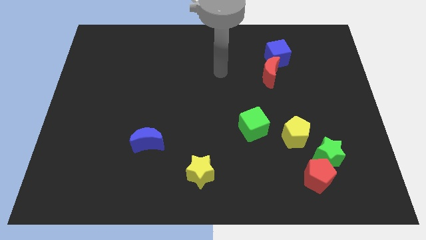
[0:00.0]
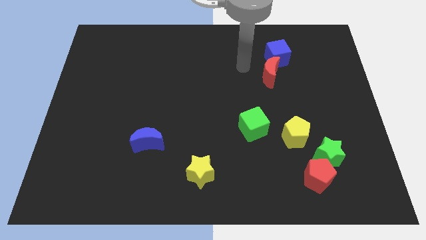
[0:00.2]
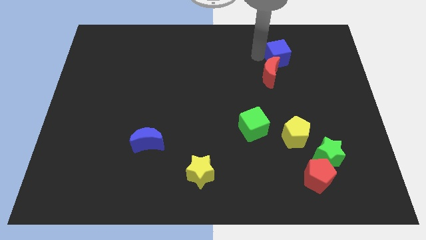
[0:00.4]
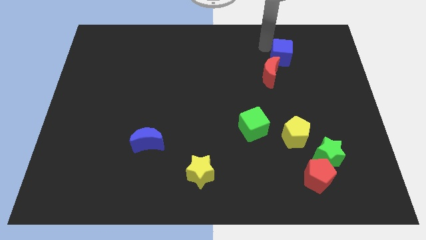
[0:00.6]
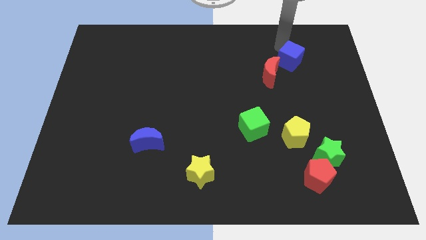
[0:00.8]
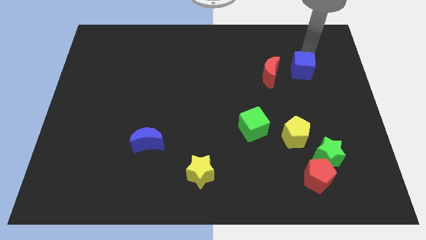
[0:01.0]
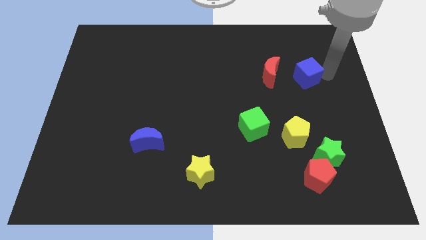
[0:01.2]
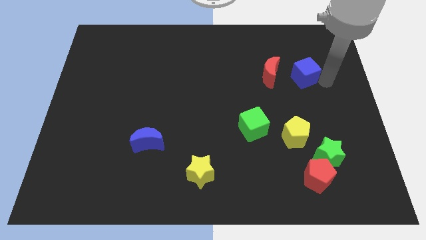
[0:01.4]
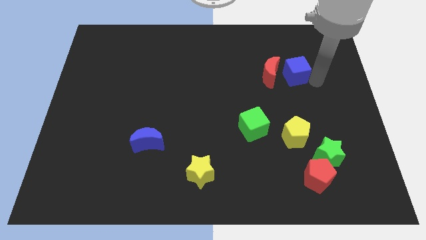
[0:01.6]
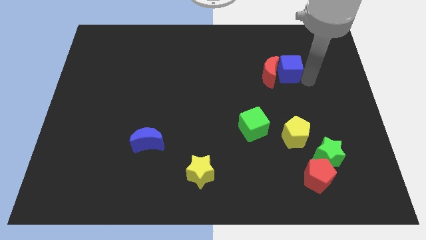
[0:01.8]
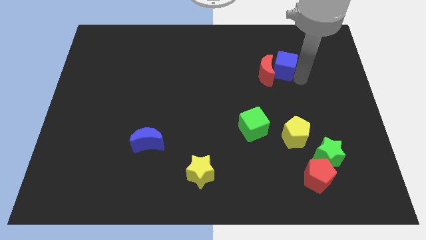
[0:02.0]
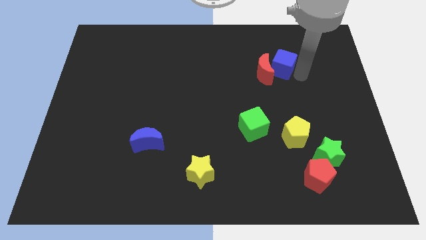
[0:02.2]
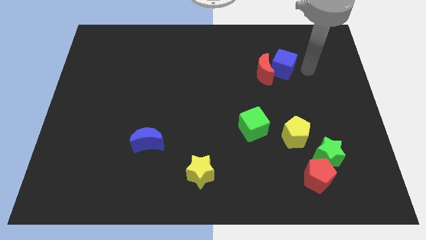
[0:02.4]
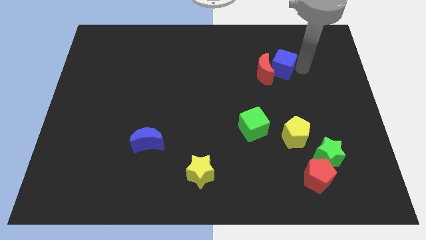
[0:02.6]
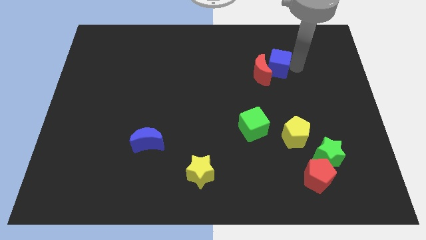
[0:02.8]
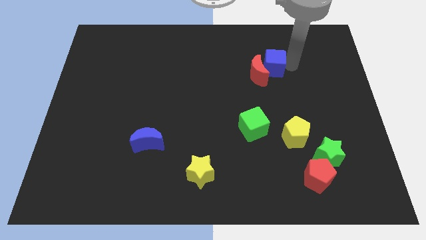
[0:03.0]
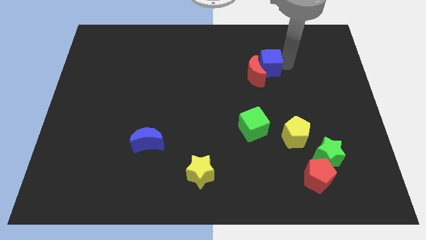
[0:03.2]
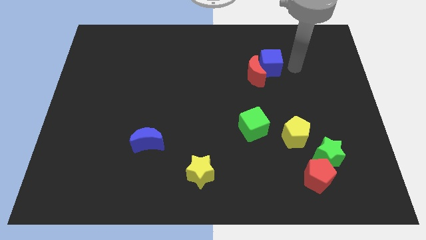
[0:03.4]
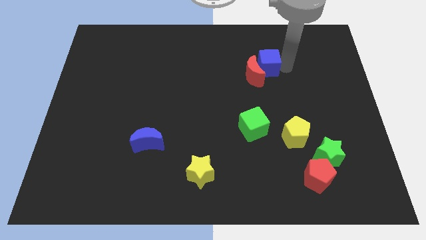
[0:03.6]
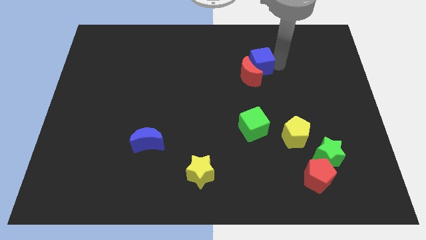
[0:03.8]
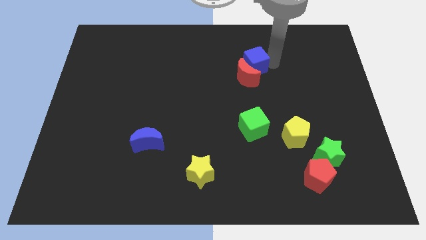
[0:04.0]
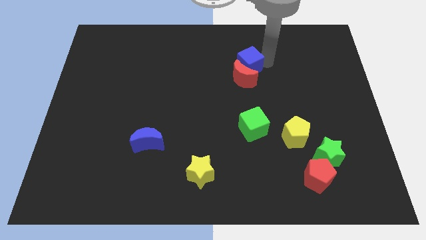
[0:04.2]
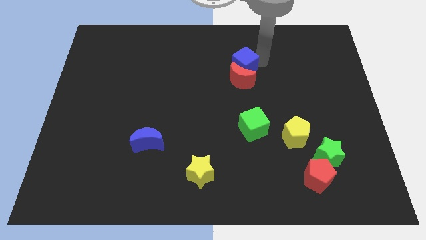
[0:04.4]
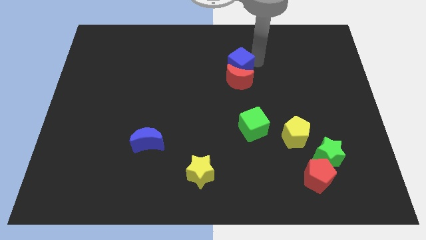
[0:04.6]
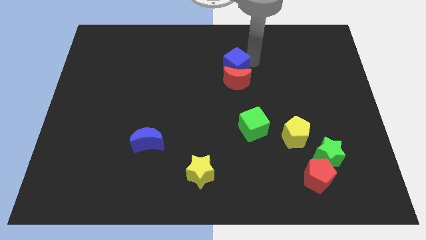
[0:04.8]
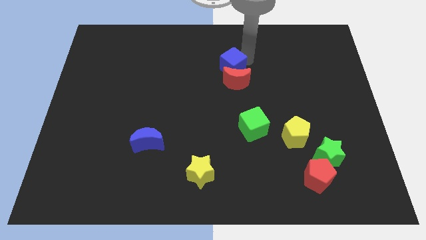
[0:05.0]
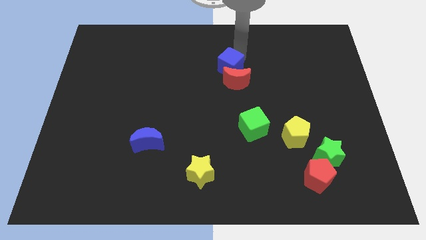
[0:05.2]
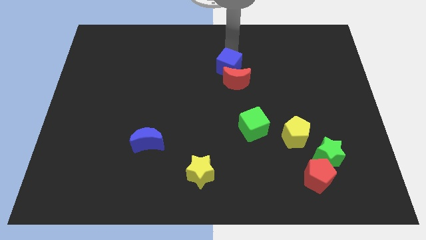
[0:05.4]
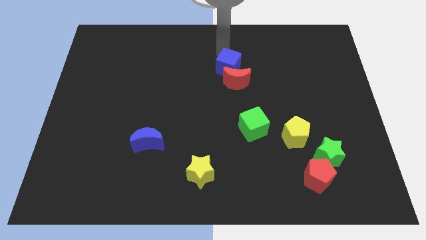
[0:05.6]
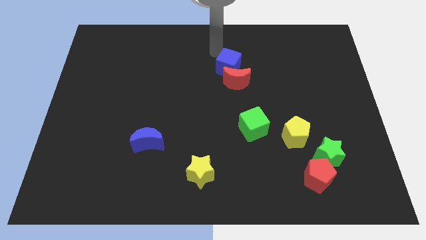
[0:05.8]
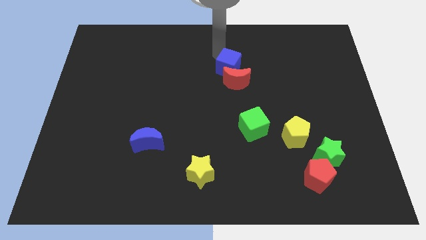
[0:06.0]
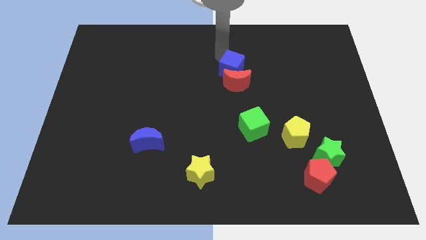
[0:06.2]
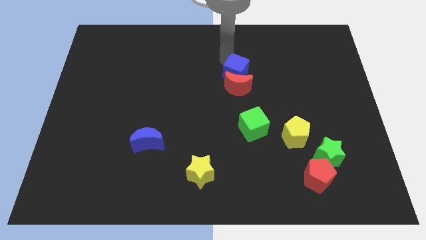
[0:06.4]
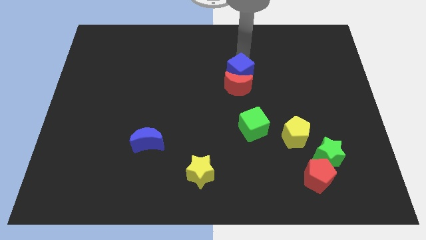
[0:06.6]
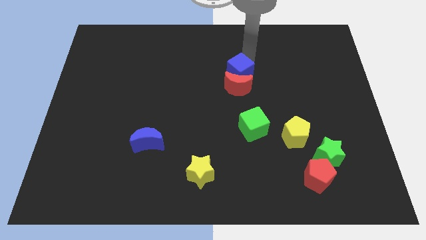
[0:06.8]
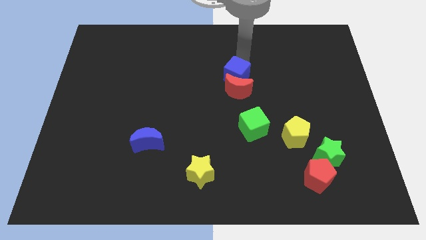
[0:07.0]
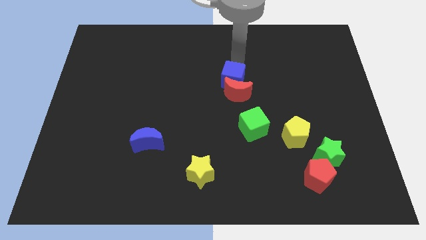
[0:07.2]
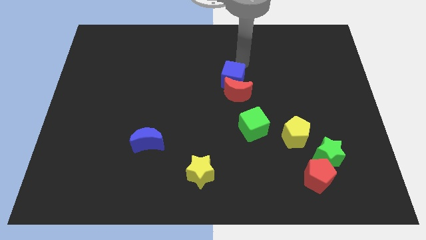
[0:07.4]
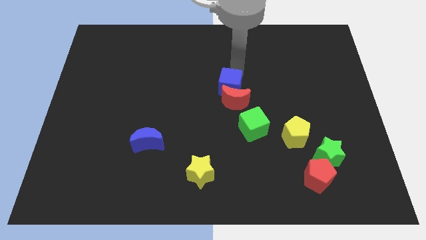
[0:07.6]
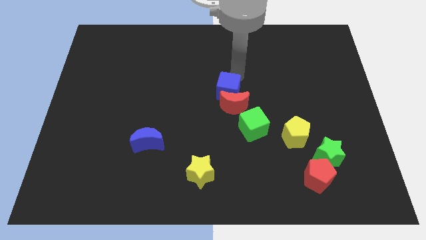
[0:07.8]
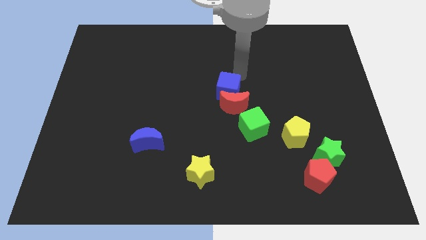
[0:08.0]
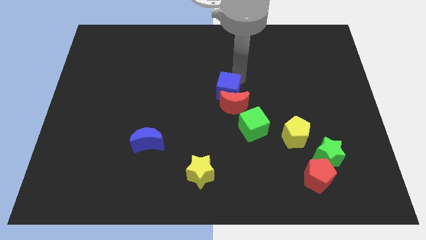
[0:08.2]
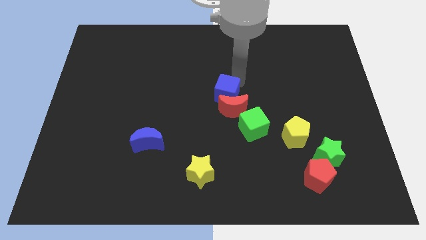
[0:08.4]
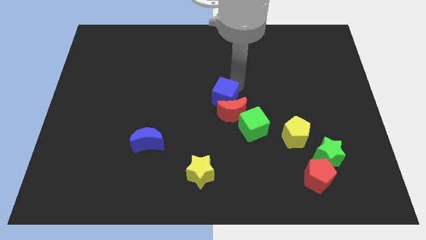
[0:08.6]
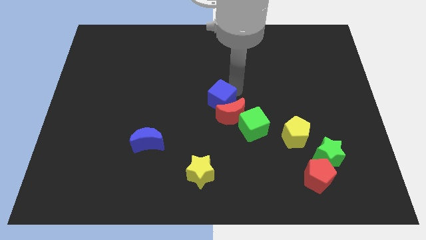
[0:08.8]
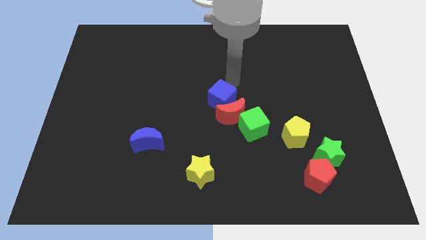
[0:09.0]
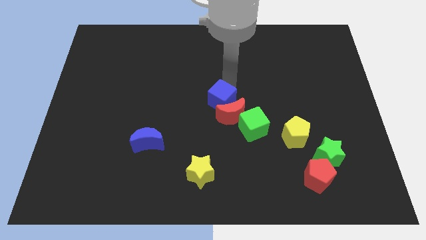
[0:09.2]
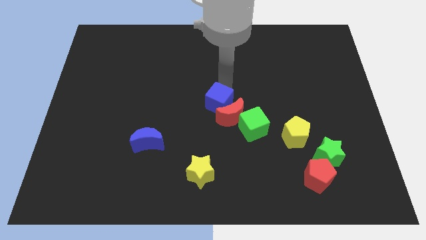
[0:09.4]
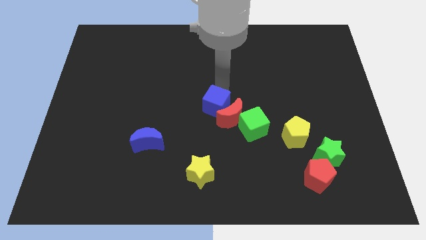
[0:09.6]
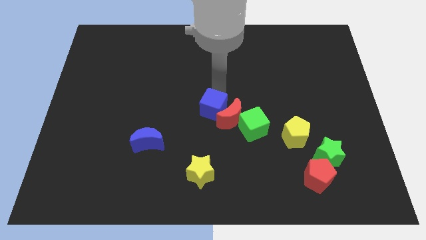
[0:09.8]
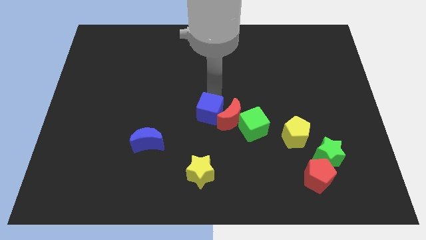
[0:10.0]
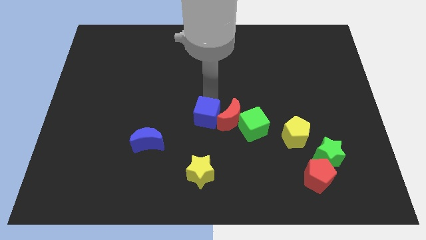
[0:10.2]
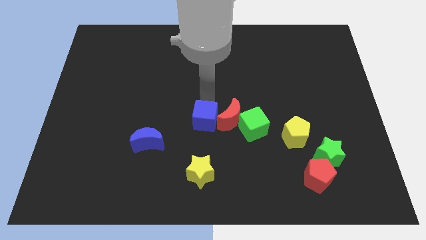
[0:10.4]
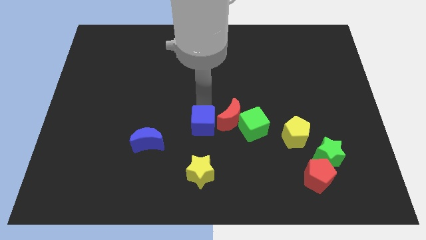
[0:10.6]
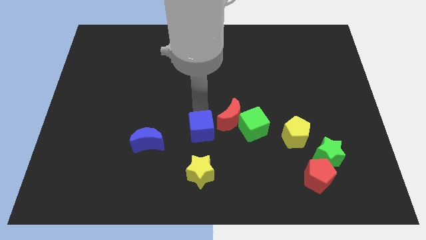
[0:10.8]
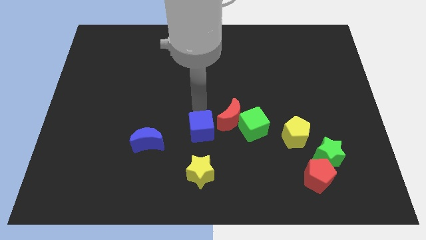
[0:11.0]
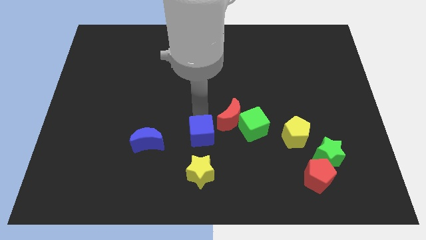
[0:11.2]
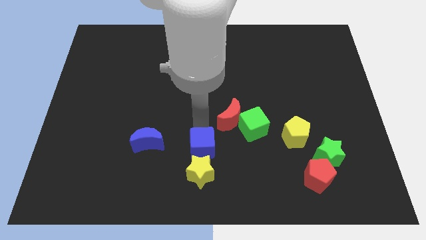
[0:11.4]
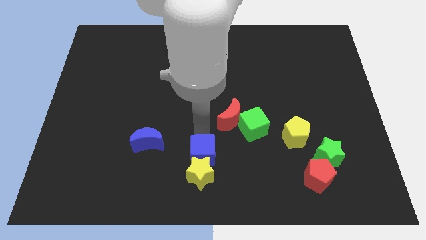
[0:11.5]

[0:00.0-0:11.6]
move the blue cube next to the yellow star

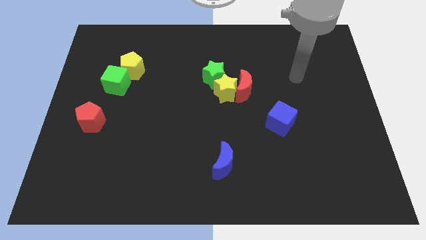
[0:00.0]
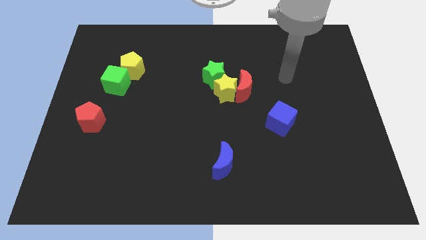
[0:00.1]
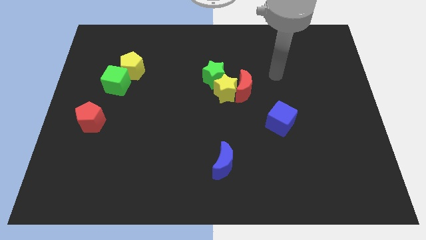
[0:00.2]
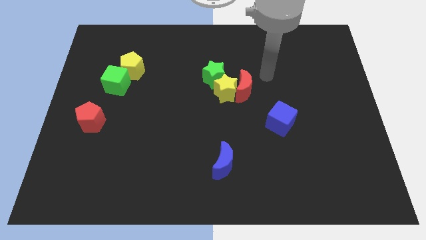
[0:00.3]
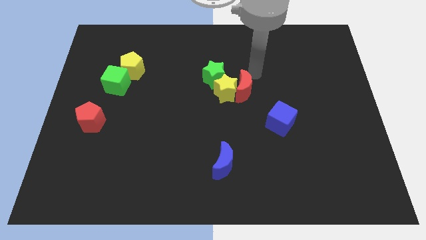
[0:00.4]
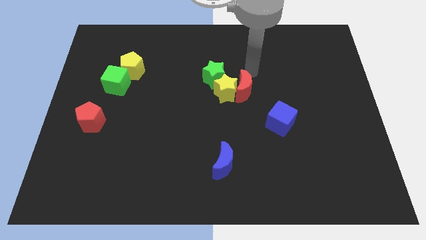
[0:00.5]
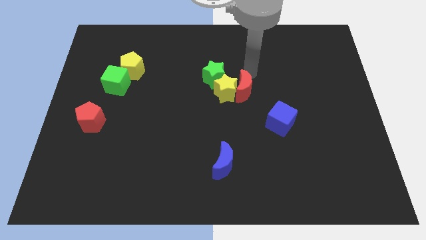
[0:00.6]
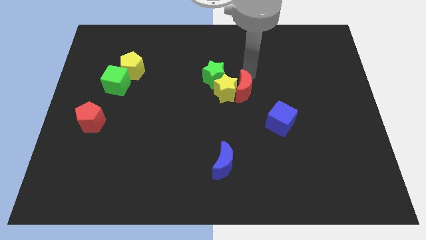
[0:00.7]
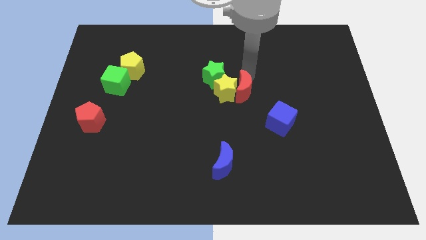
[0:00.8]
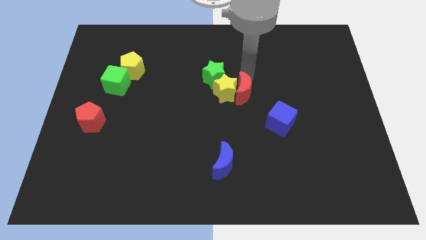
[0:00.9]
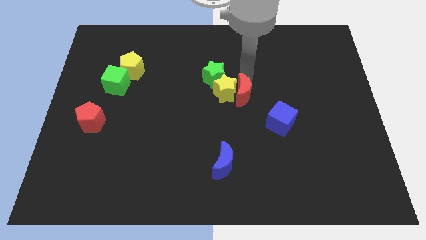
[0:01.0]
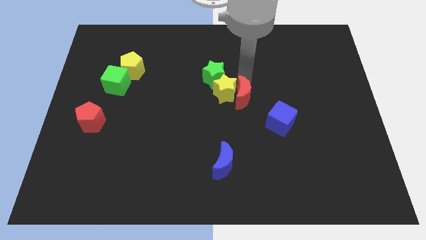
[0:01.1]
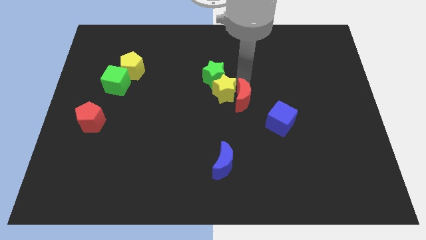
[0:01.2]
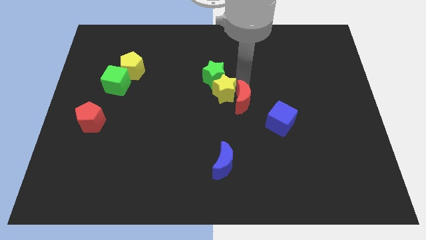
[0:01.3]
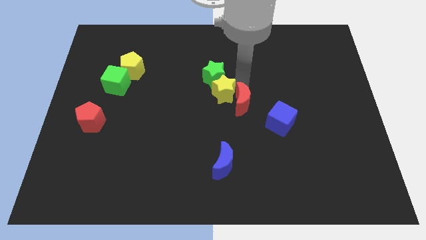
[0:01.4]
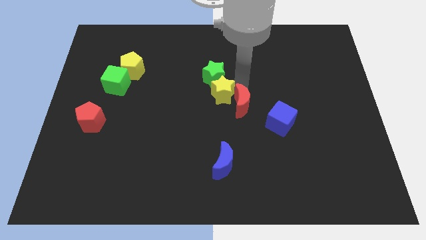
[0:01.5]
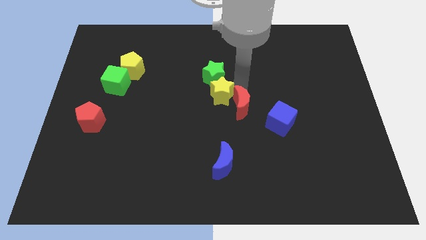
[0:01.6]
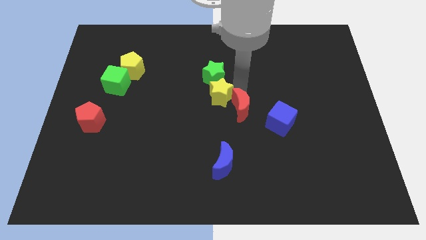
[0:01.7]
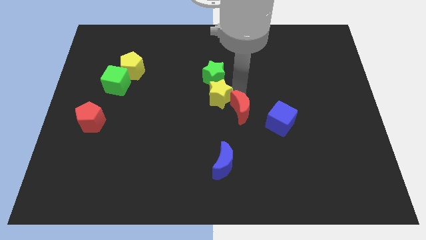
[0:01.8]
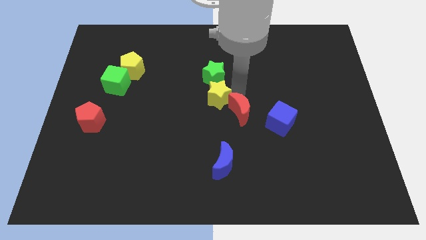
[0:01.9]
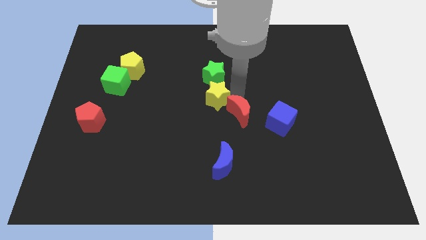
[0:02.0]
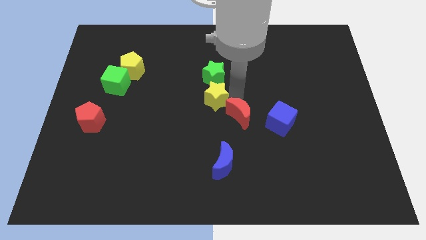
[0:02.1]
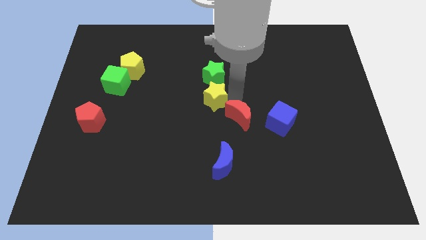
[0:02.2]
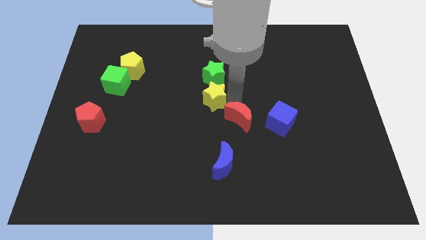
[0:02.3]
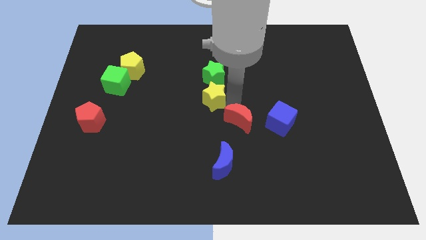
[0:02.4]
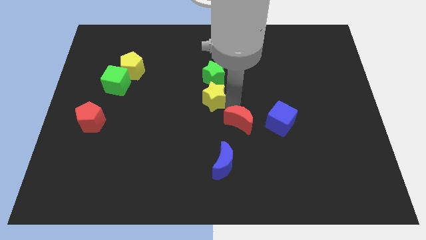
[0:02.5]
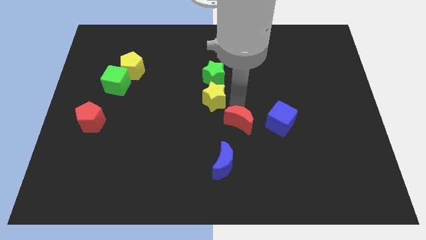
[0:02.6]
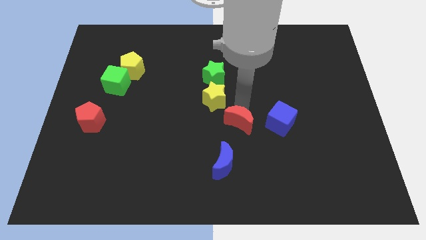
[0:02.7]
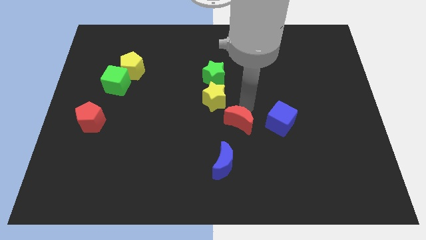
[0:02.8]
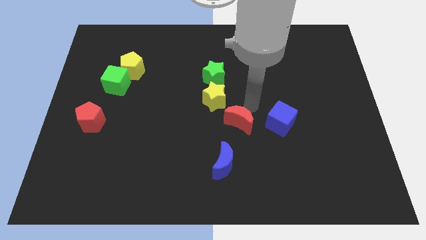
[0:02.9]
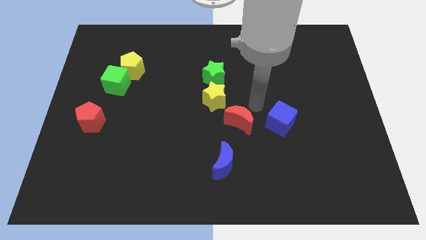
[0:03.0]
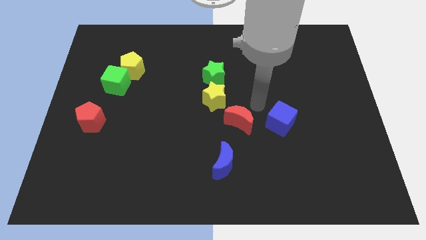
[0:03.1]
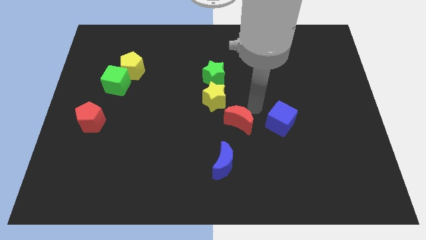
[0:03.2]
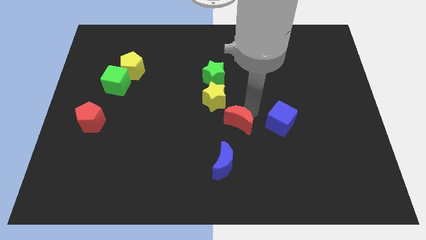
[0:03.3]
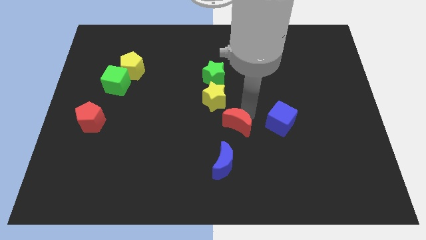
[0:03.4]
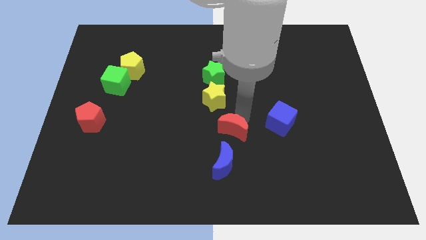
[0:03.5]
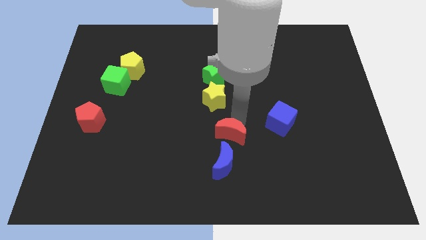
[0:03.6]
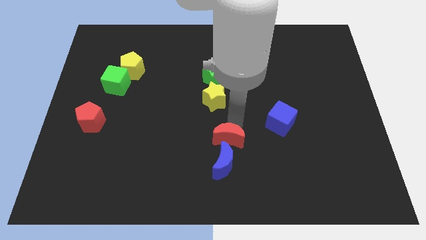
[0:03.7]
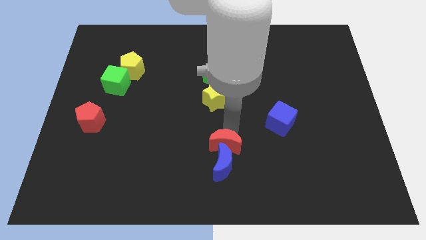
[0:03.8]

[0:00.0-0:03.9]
push the red moon to the blue moon
